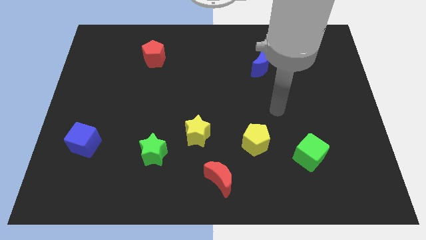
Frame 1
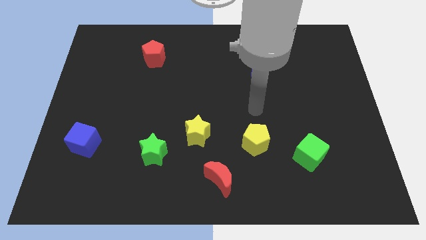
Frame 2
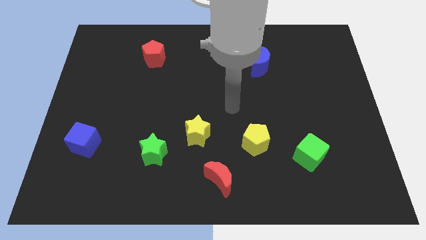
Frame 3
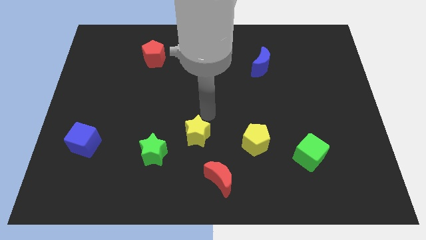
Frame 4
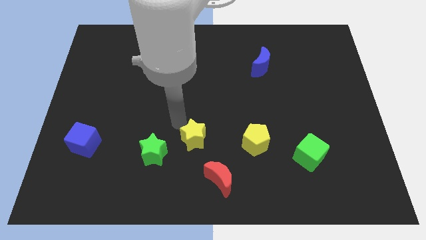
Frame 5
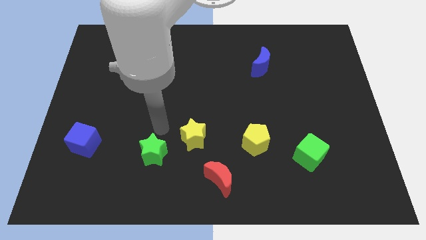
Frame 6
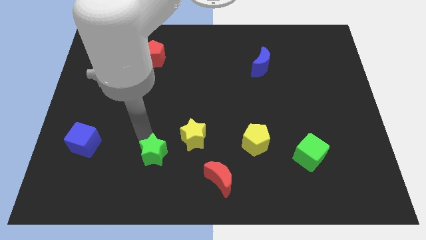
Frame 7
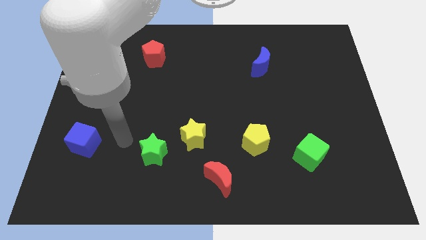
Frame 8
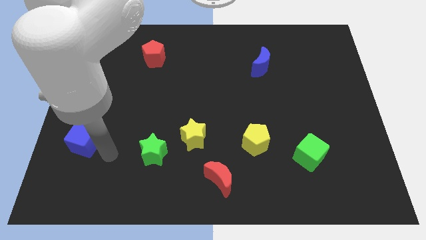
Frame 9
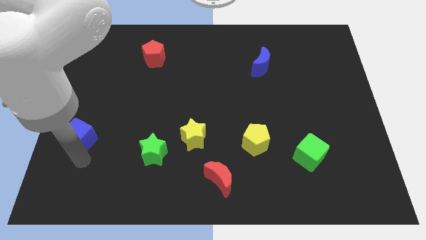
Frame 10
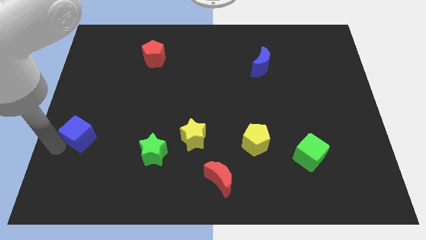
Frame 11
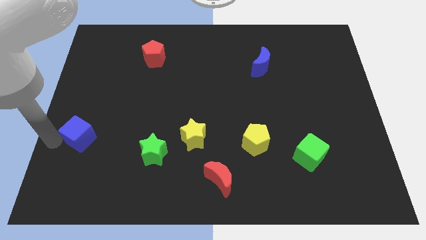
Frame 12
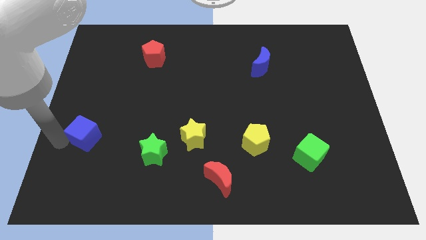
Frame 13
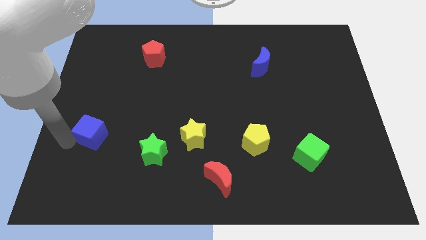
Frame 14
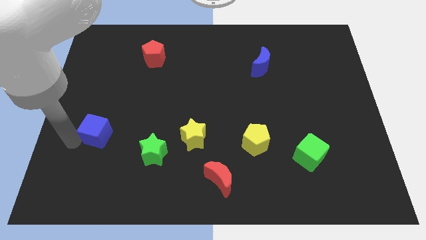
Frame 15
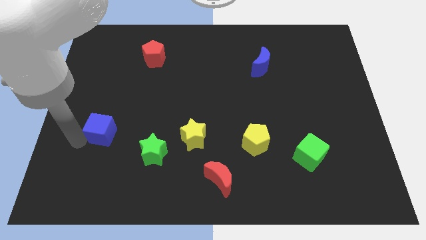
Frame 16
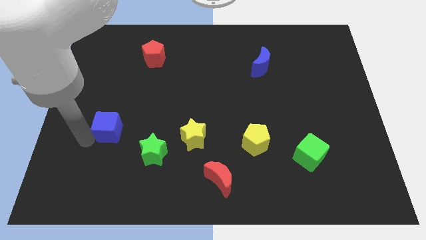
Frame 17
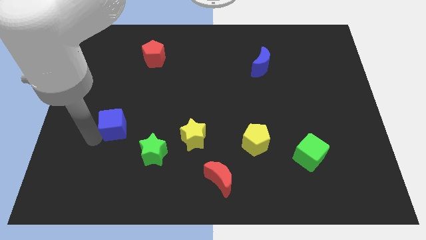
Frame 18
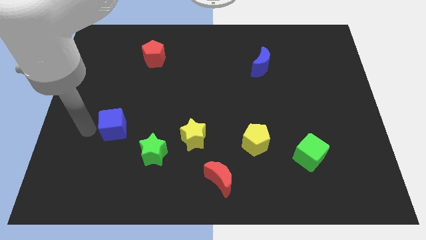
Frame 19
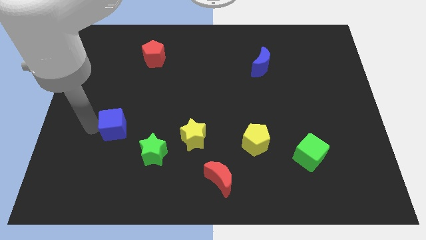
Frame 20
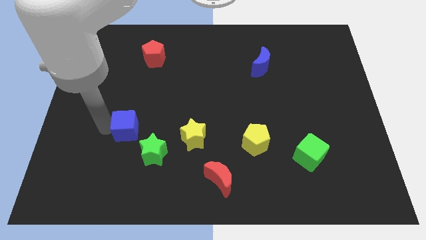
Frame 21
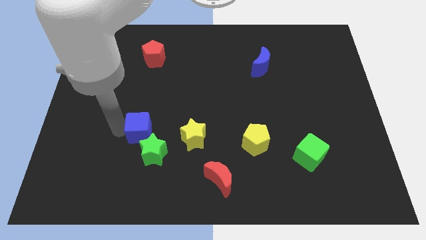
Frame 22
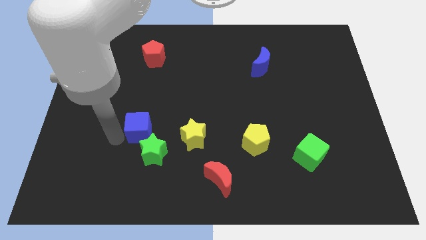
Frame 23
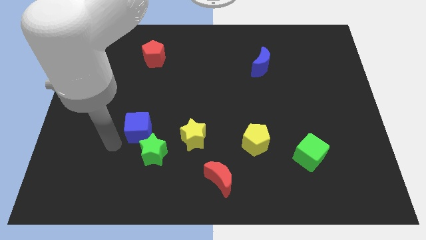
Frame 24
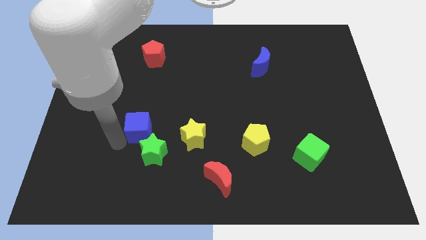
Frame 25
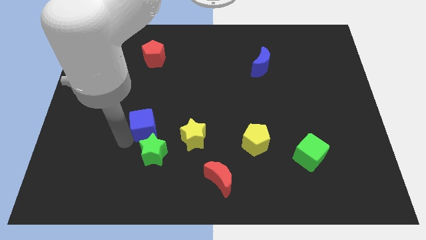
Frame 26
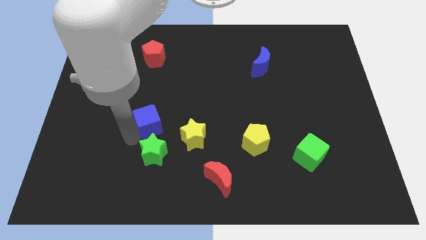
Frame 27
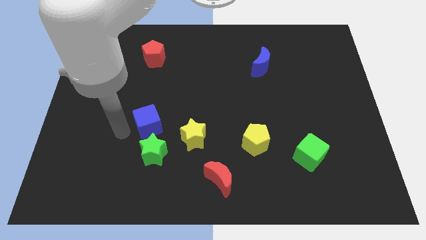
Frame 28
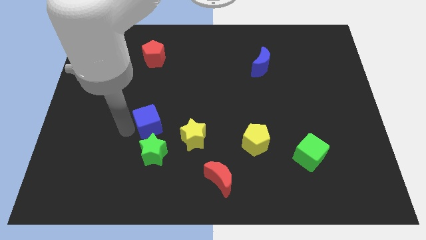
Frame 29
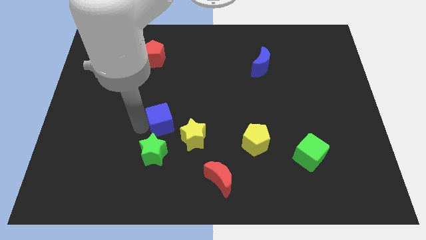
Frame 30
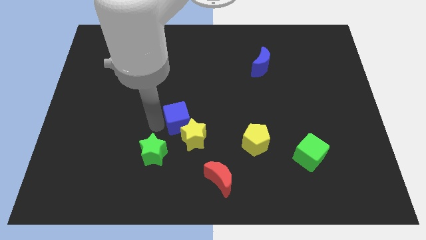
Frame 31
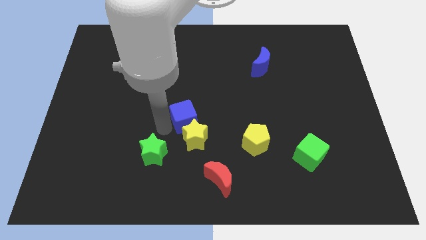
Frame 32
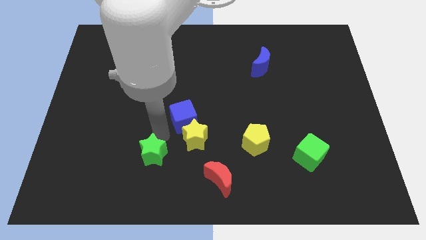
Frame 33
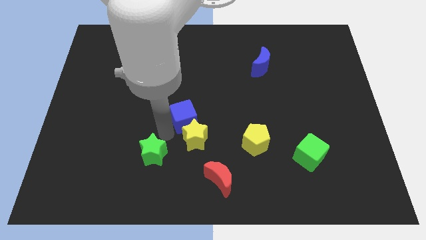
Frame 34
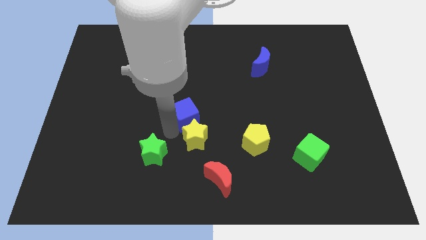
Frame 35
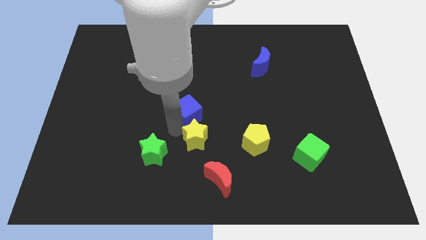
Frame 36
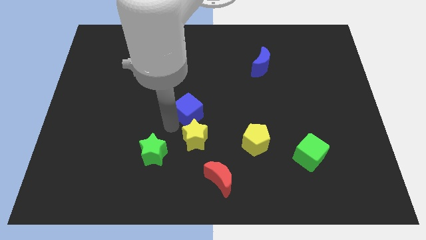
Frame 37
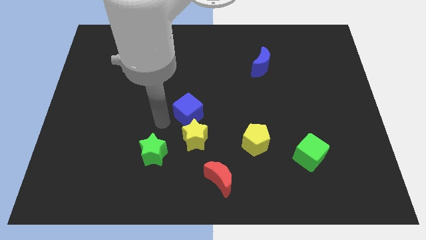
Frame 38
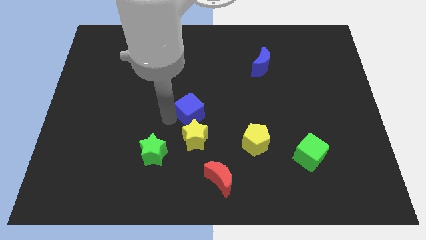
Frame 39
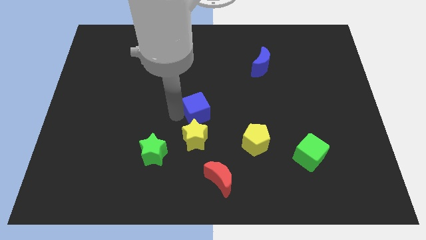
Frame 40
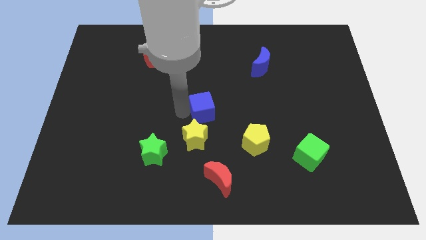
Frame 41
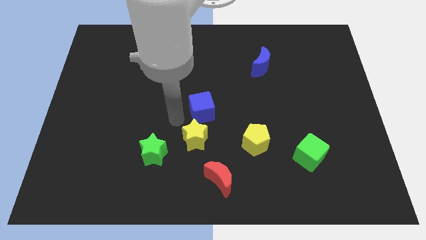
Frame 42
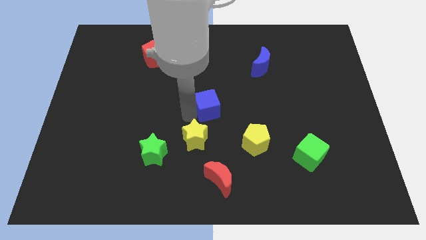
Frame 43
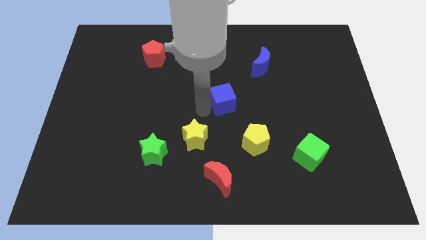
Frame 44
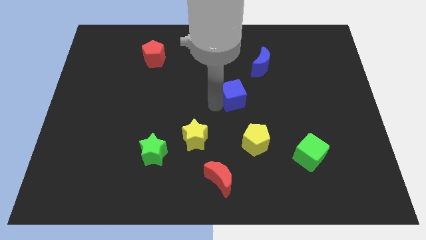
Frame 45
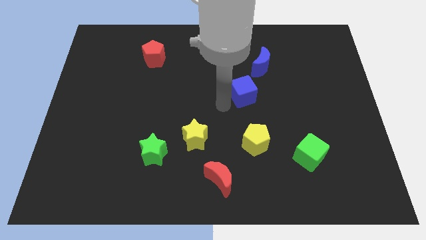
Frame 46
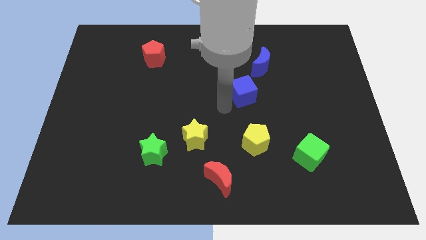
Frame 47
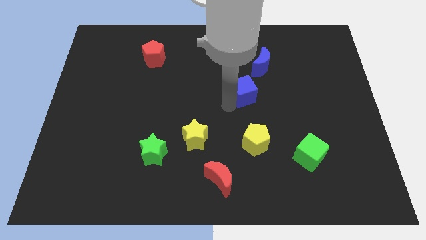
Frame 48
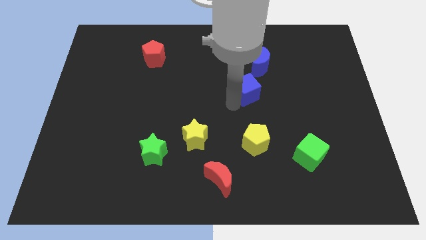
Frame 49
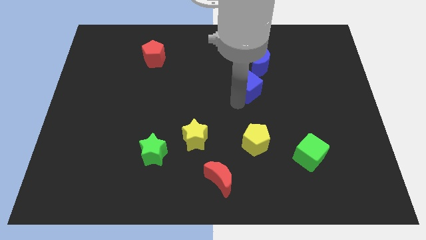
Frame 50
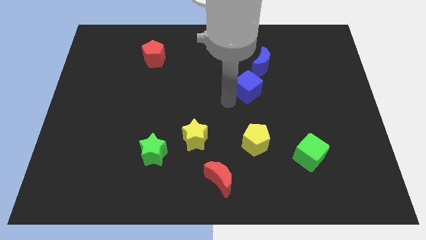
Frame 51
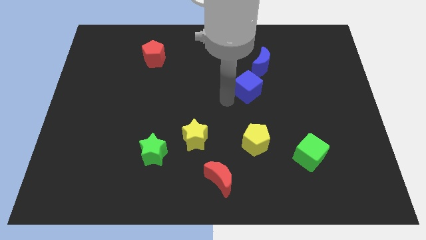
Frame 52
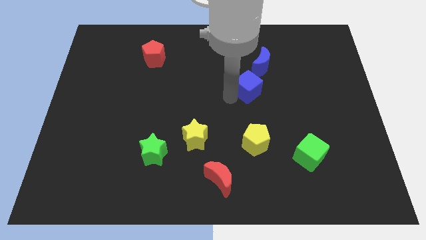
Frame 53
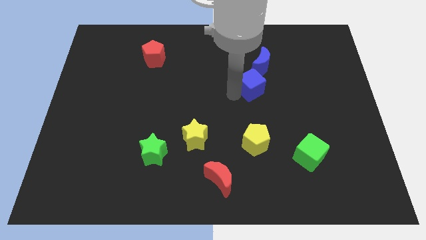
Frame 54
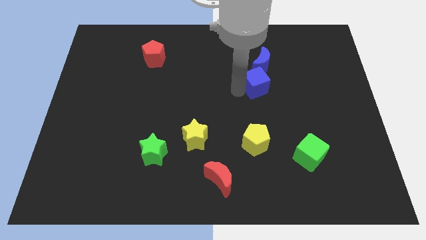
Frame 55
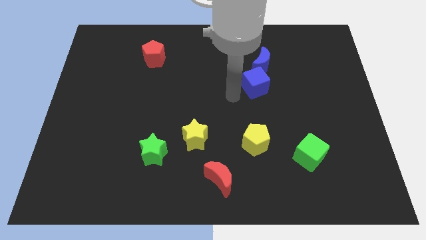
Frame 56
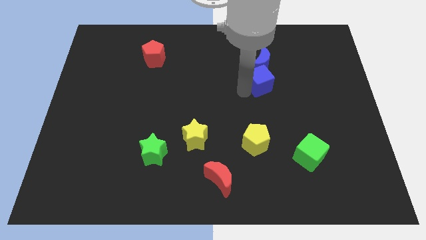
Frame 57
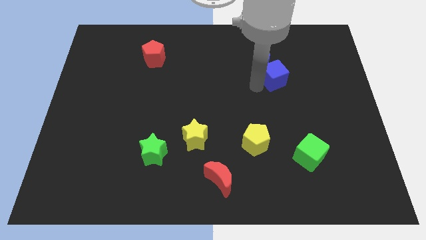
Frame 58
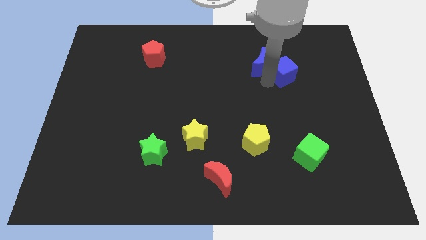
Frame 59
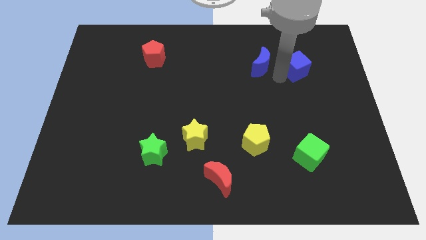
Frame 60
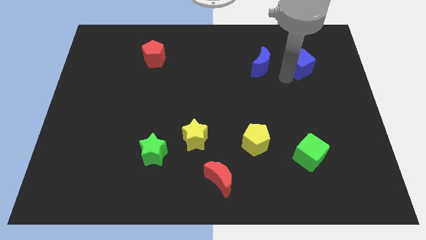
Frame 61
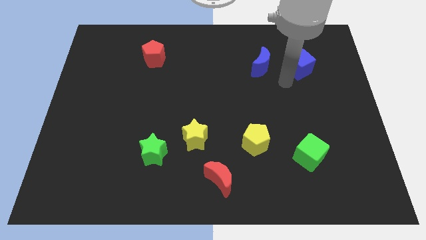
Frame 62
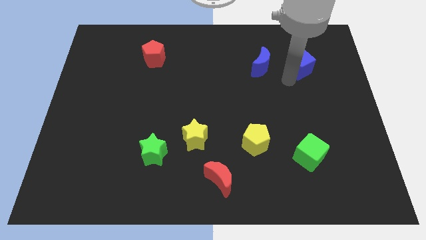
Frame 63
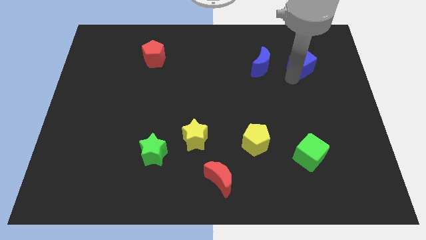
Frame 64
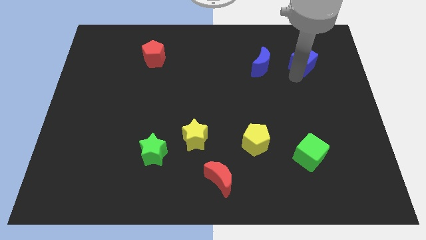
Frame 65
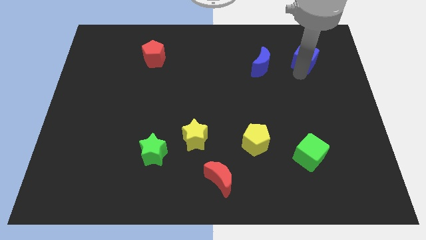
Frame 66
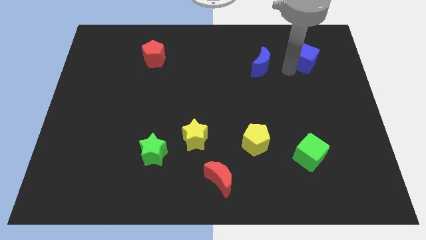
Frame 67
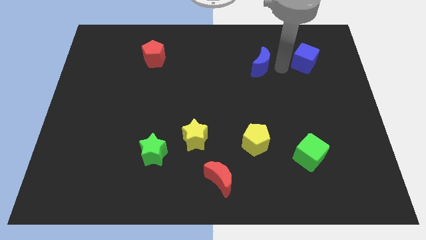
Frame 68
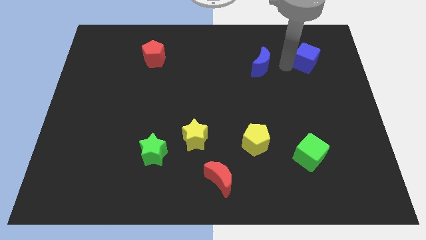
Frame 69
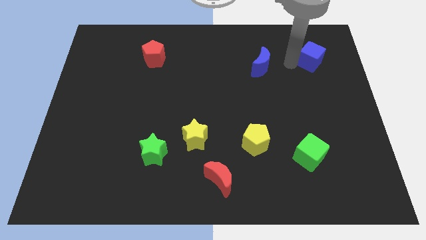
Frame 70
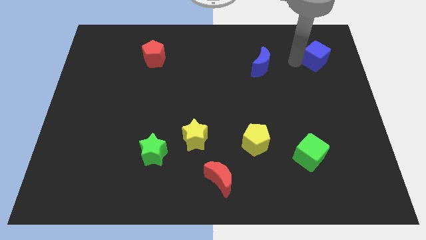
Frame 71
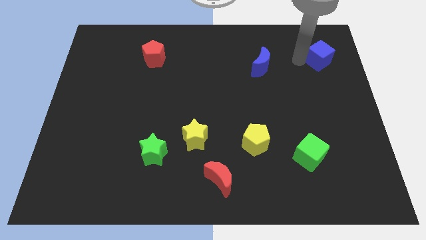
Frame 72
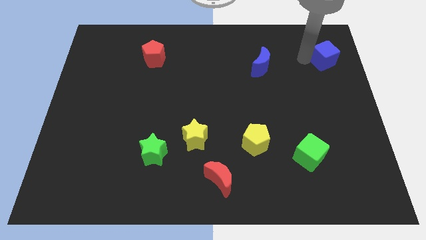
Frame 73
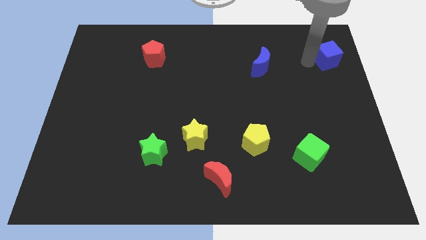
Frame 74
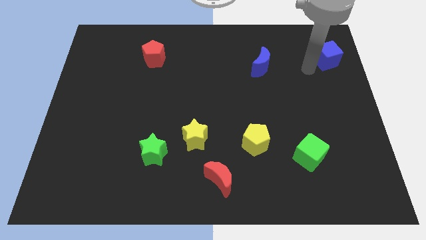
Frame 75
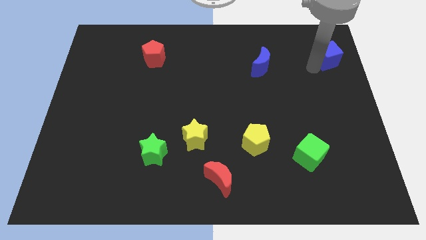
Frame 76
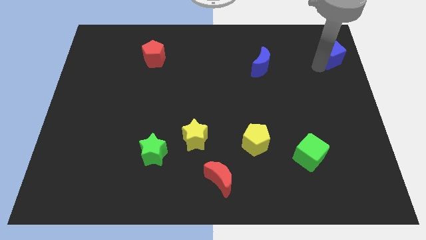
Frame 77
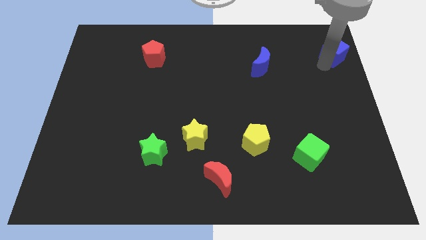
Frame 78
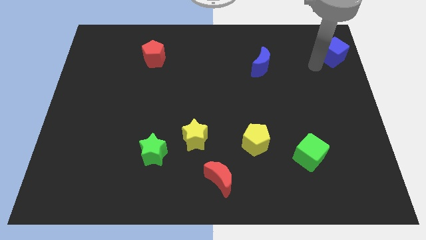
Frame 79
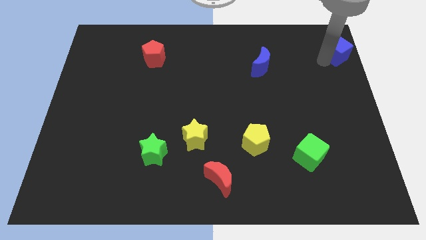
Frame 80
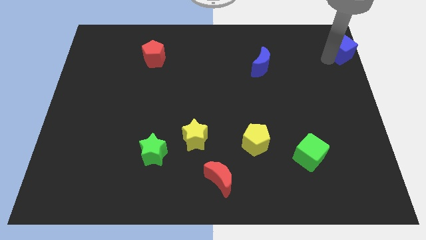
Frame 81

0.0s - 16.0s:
slide the blue cube to the upper right corner

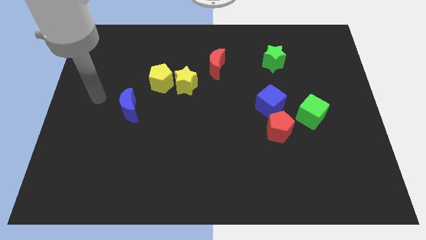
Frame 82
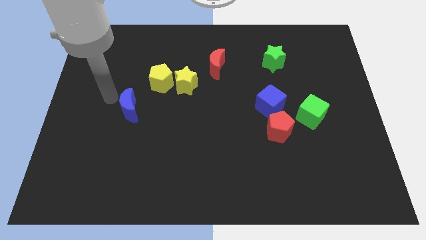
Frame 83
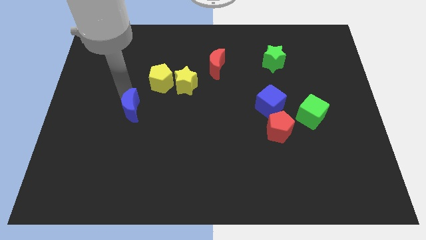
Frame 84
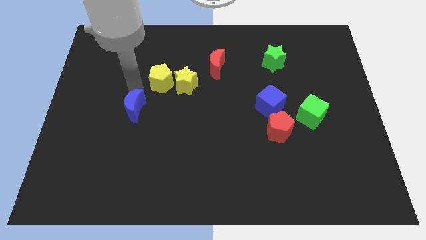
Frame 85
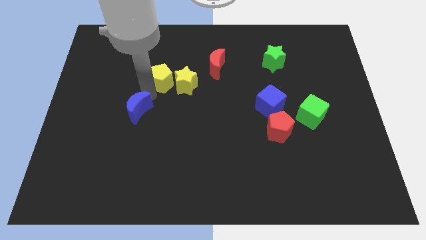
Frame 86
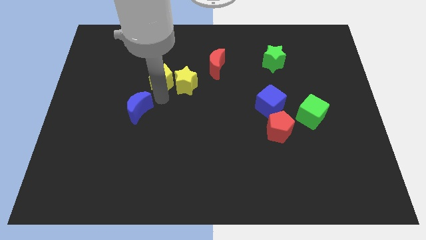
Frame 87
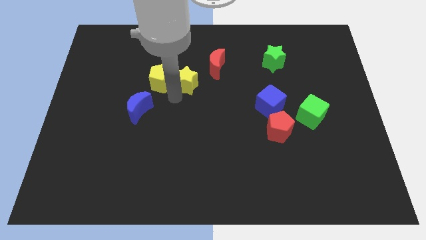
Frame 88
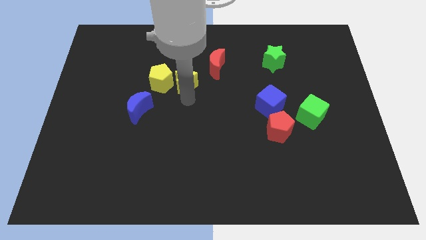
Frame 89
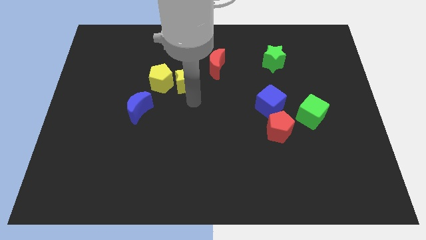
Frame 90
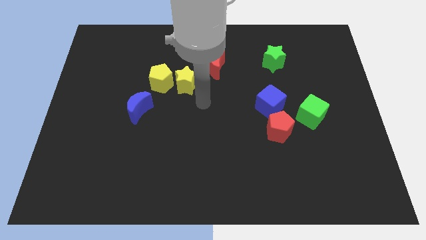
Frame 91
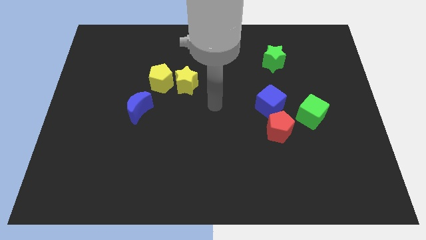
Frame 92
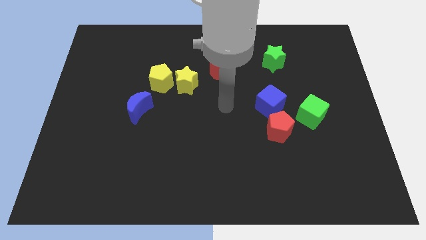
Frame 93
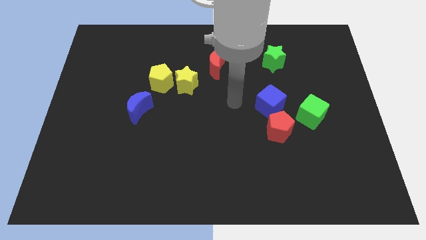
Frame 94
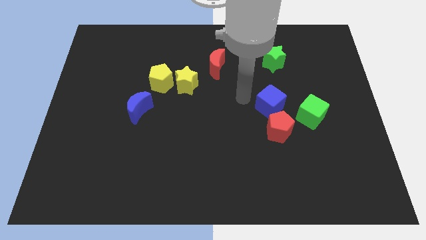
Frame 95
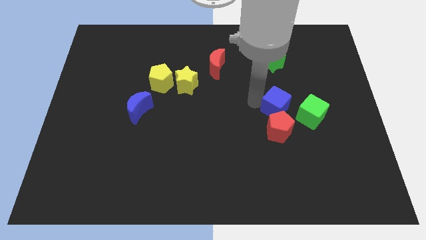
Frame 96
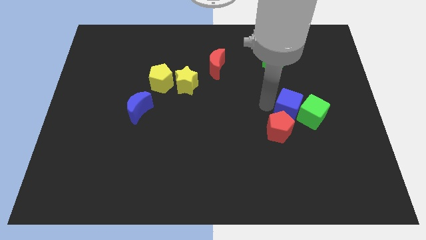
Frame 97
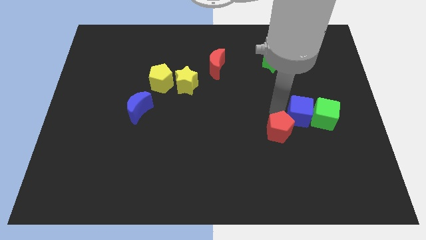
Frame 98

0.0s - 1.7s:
move the green cube to the right side
